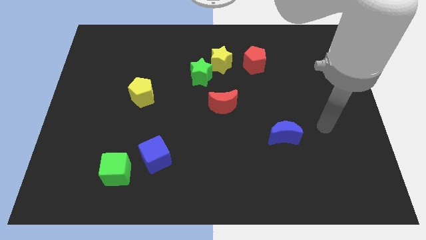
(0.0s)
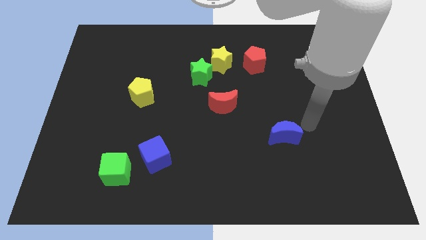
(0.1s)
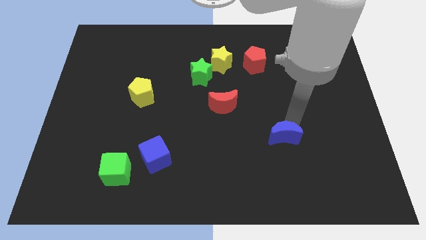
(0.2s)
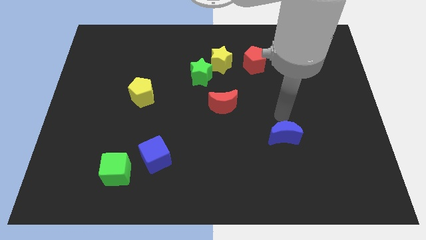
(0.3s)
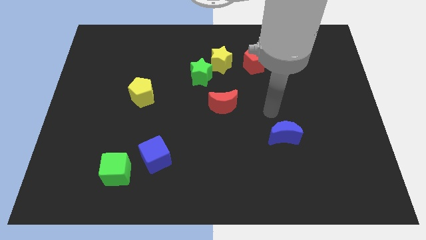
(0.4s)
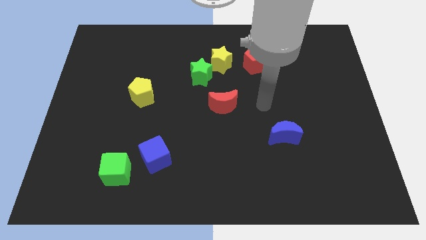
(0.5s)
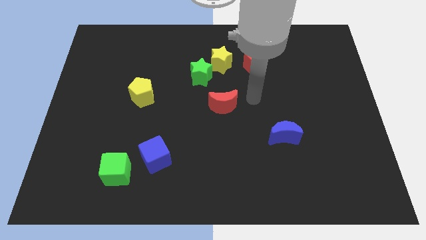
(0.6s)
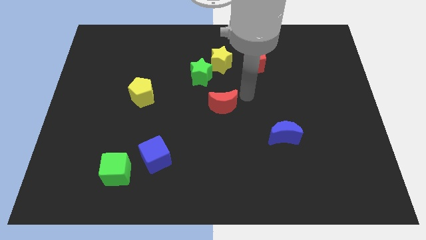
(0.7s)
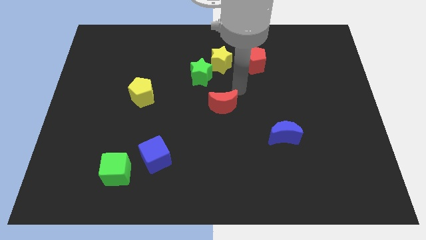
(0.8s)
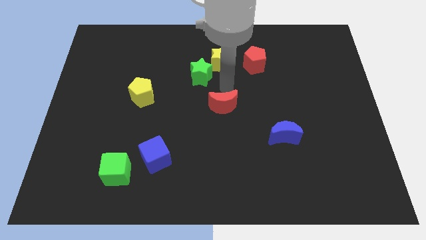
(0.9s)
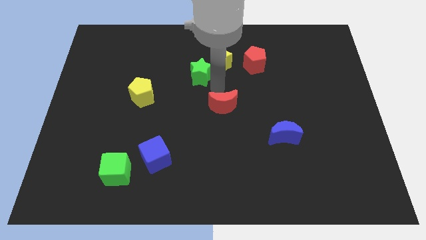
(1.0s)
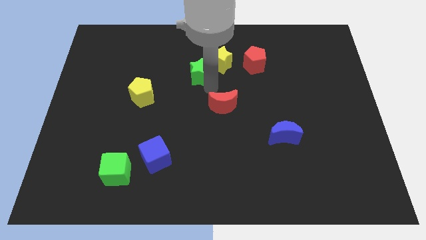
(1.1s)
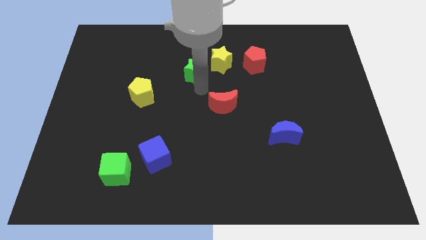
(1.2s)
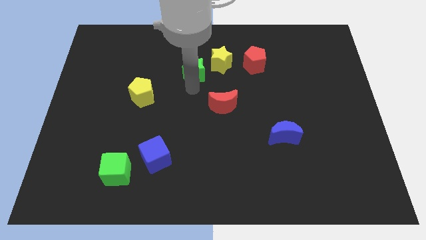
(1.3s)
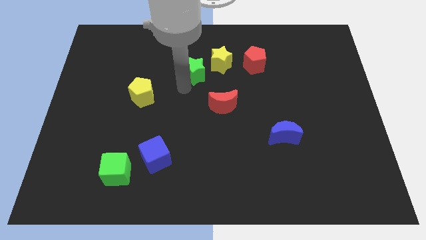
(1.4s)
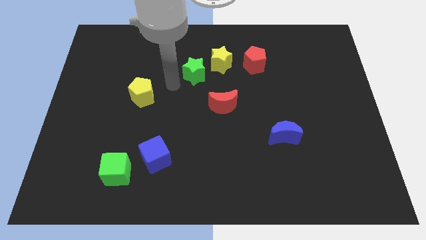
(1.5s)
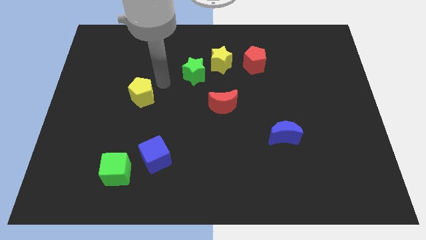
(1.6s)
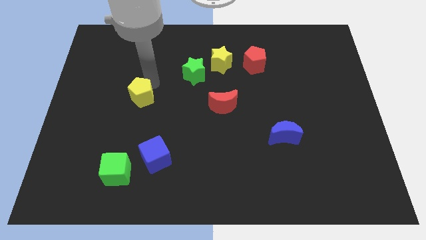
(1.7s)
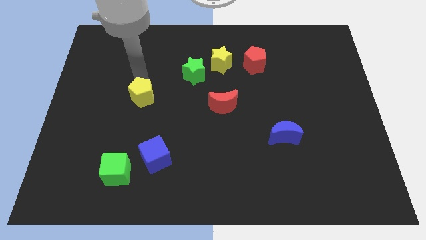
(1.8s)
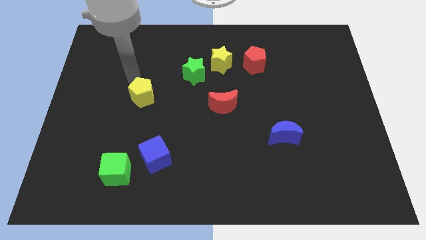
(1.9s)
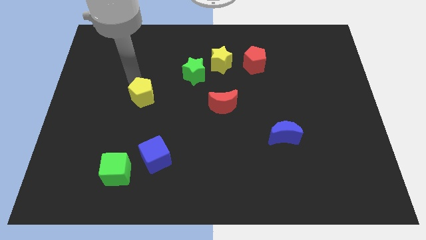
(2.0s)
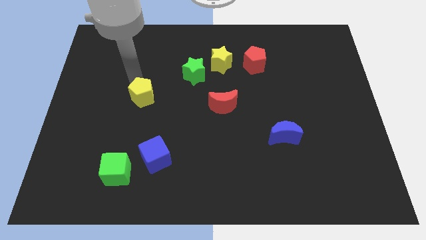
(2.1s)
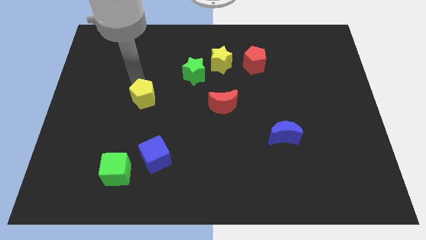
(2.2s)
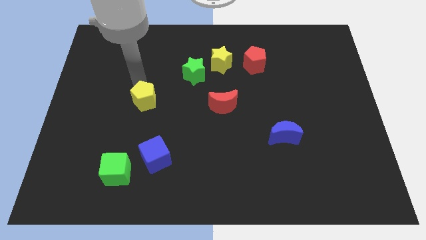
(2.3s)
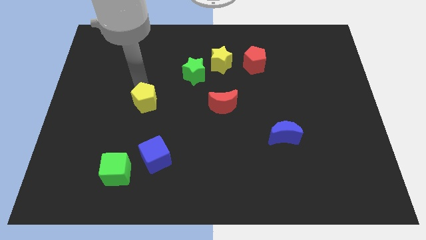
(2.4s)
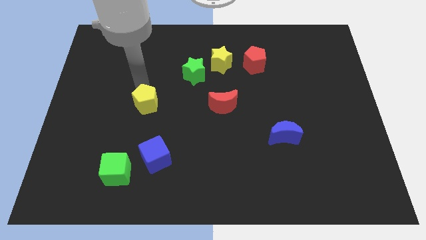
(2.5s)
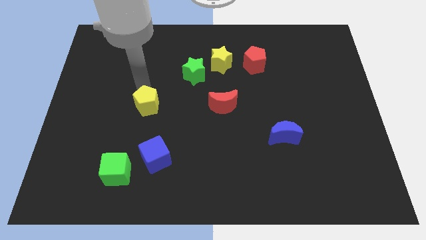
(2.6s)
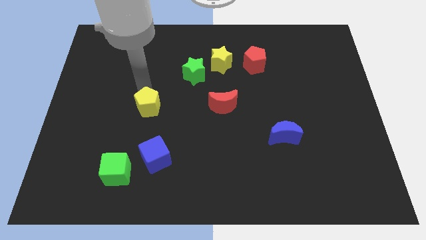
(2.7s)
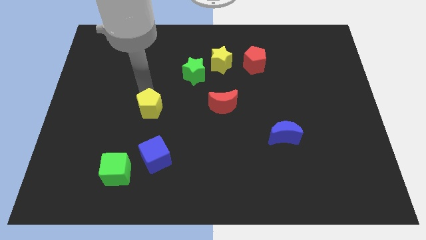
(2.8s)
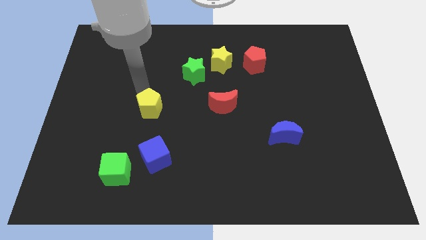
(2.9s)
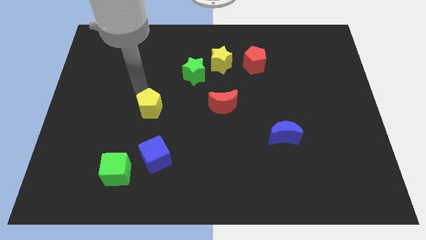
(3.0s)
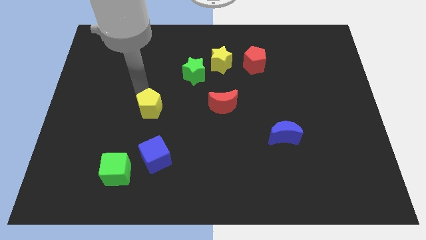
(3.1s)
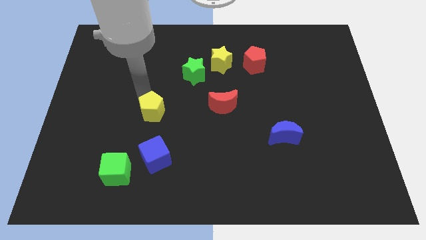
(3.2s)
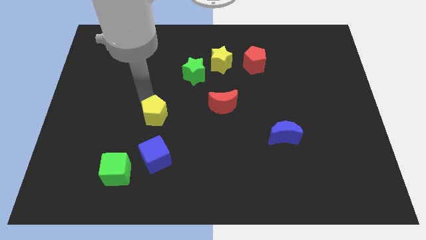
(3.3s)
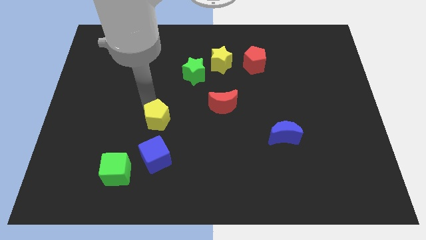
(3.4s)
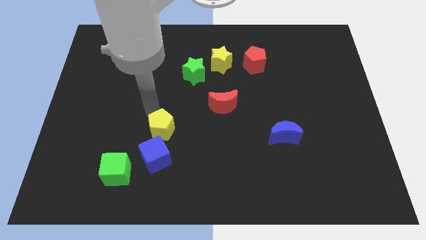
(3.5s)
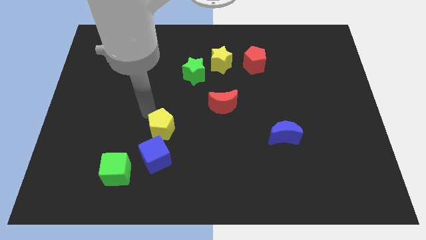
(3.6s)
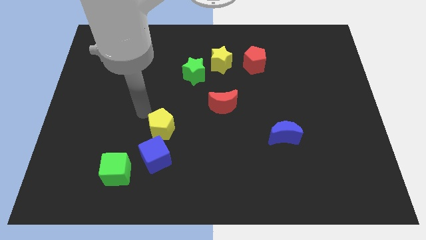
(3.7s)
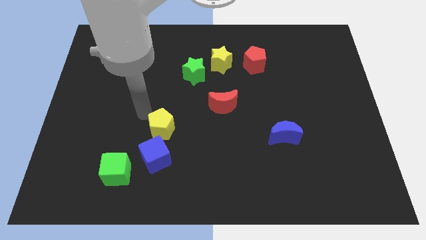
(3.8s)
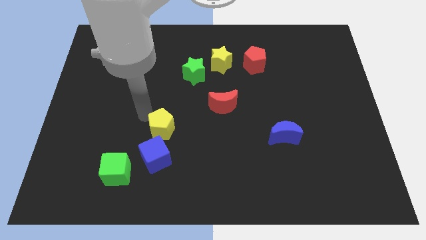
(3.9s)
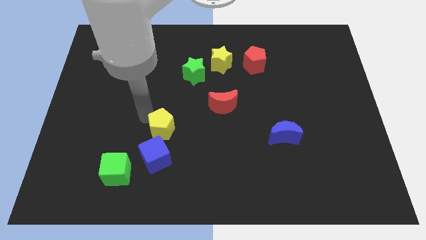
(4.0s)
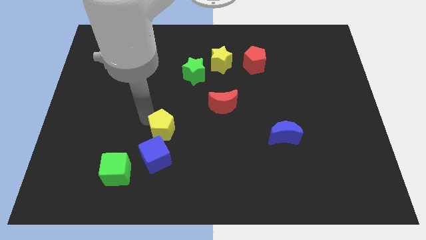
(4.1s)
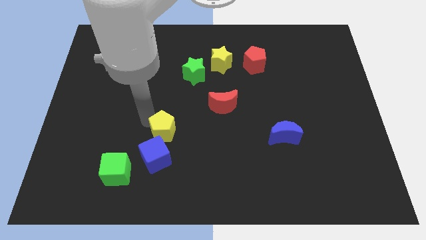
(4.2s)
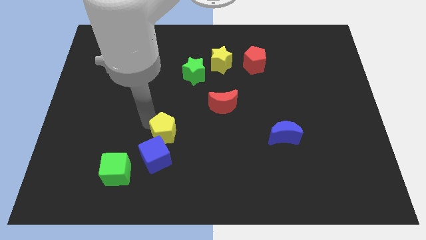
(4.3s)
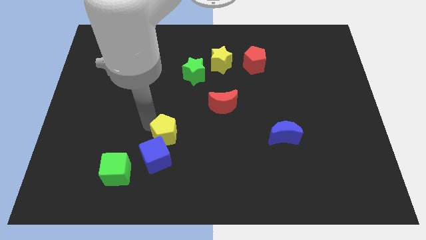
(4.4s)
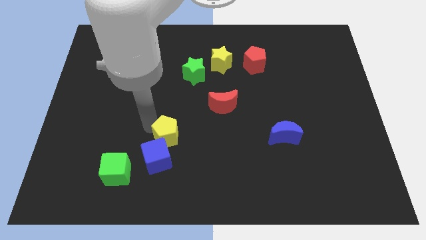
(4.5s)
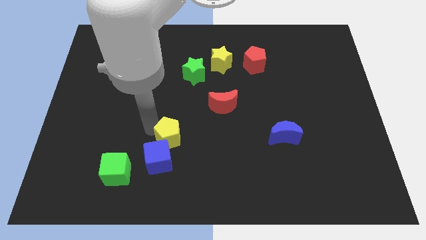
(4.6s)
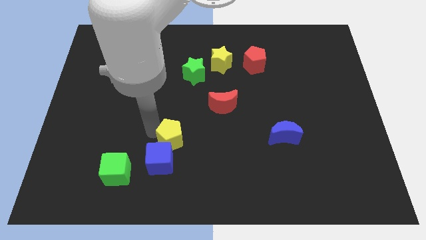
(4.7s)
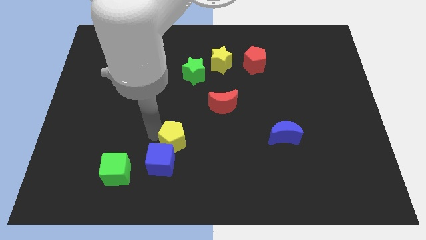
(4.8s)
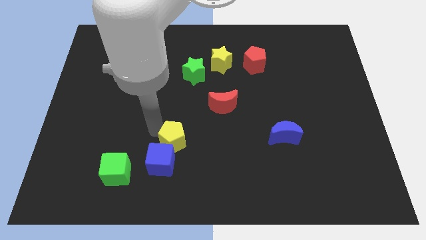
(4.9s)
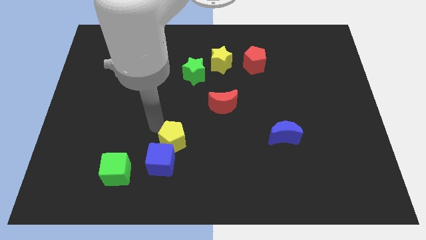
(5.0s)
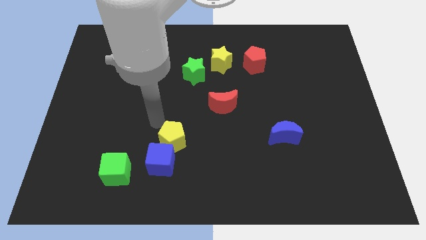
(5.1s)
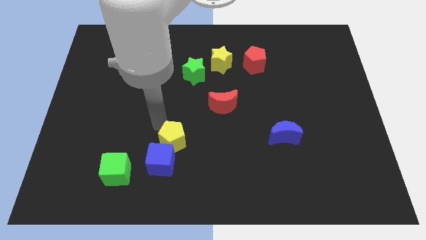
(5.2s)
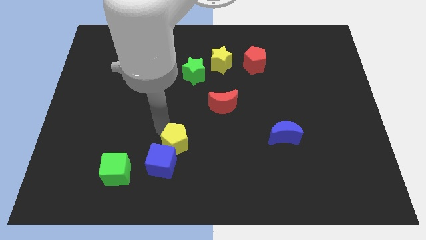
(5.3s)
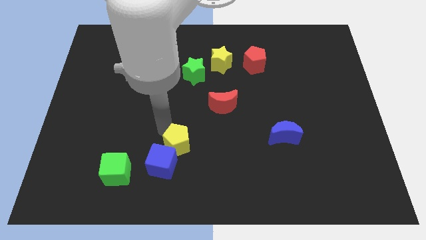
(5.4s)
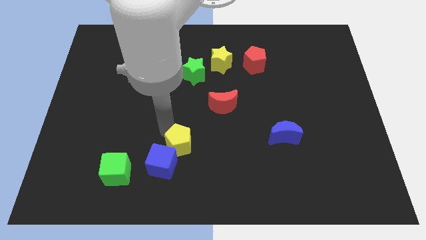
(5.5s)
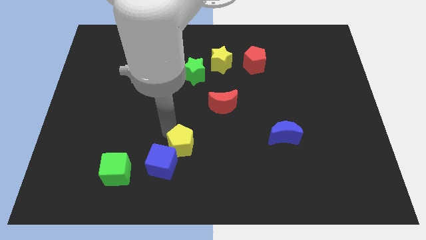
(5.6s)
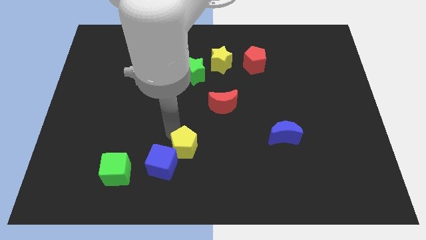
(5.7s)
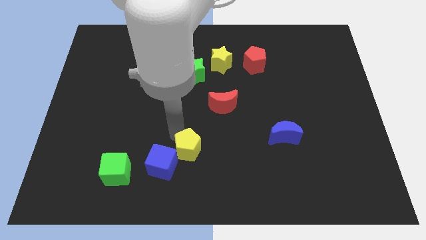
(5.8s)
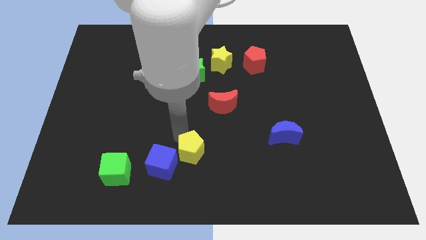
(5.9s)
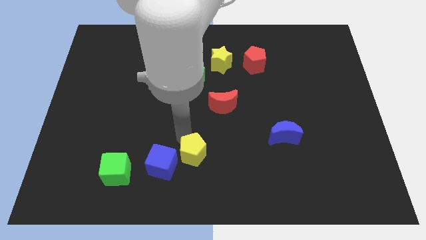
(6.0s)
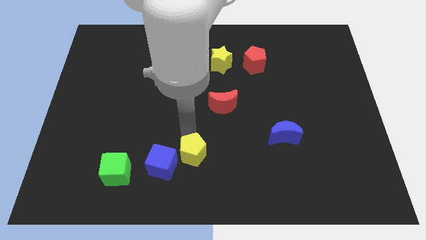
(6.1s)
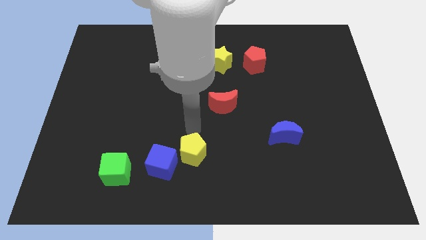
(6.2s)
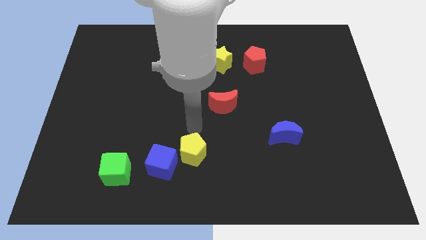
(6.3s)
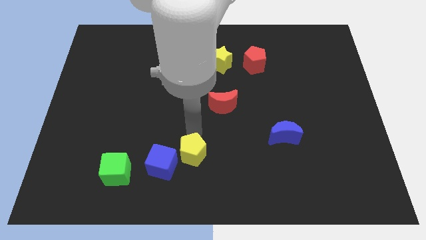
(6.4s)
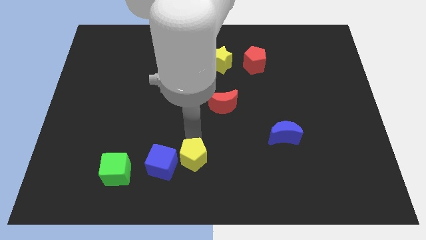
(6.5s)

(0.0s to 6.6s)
move the yellow pentagon to the bottom
